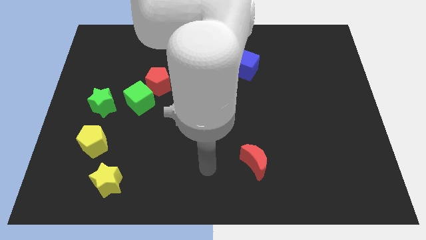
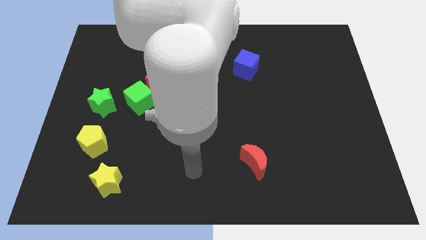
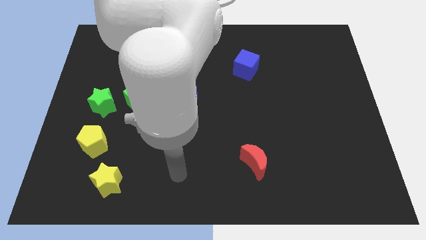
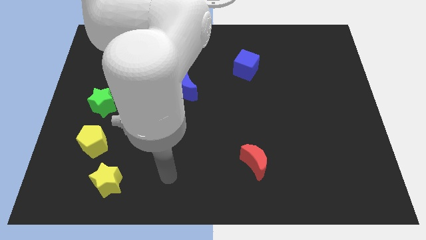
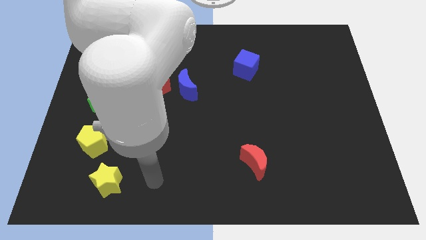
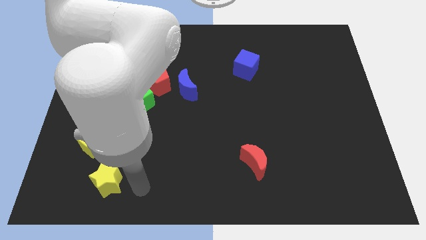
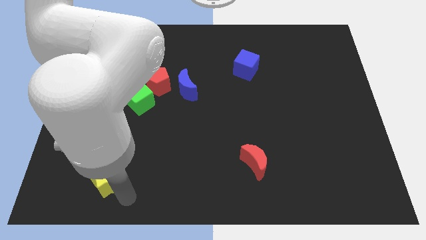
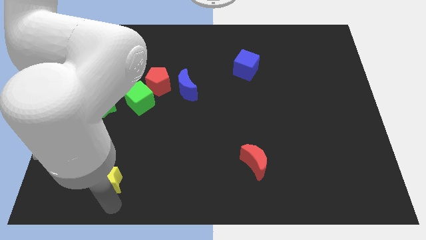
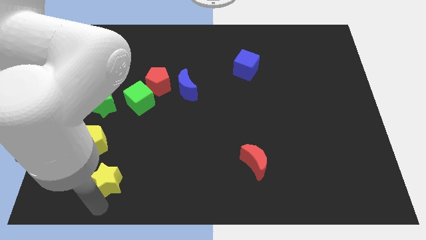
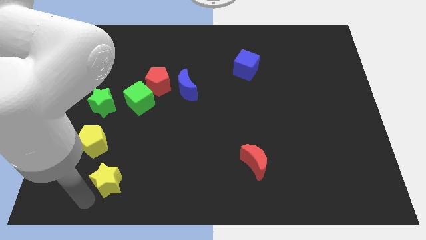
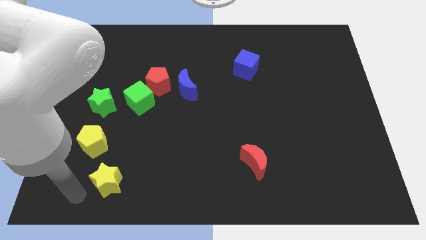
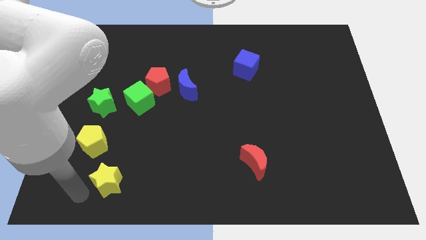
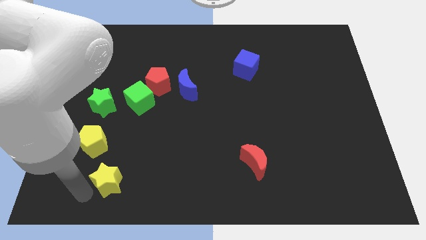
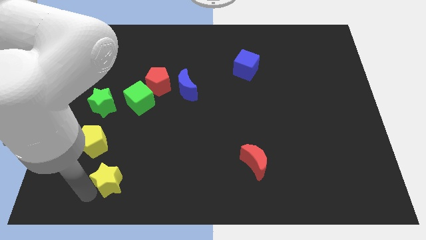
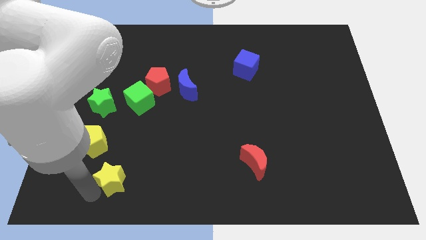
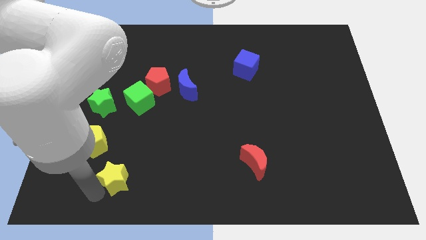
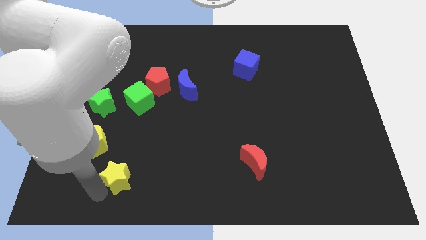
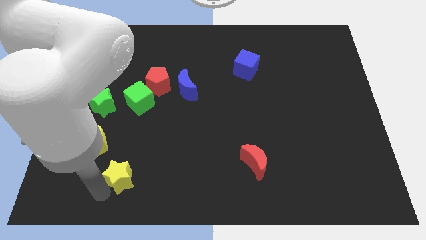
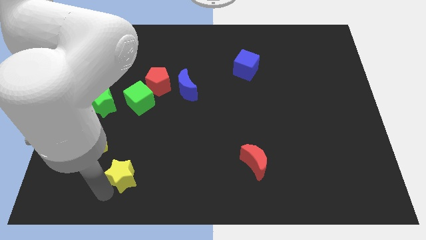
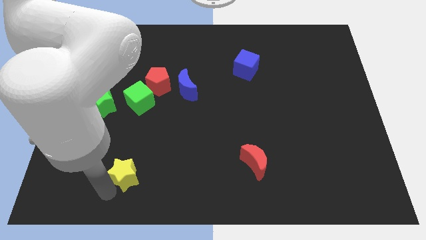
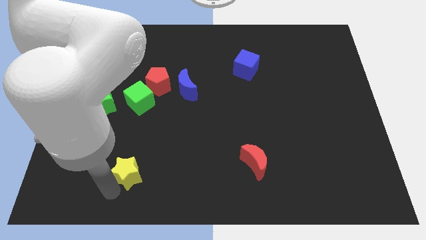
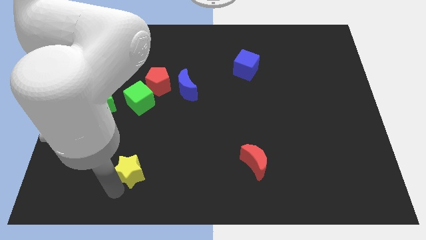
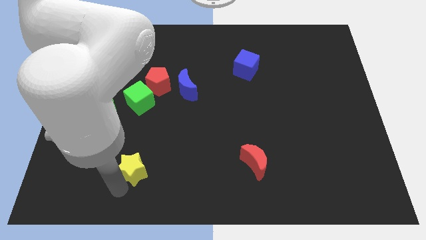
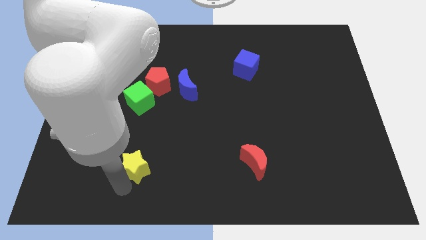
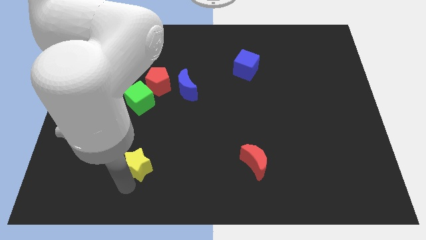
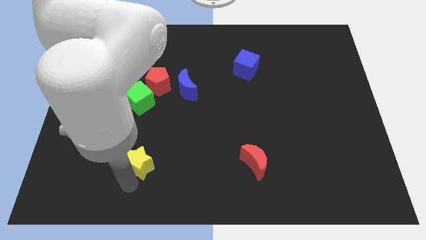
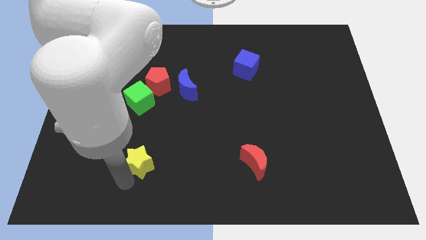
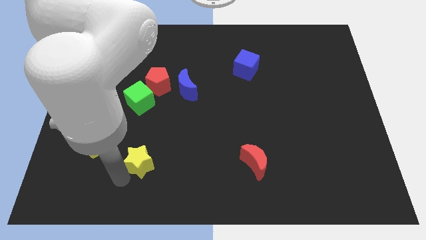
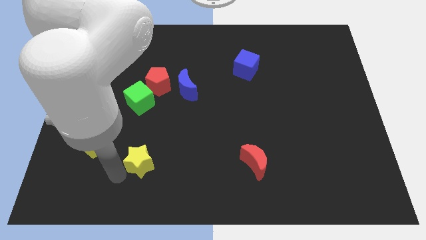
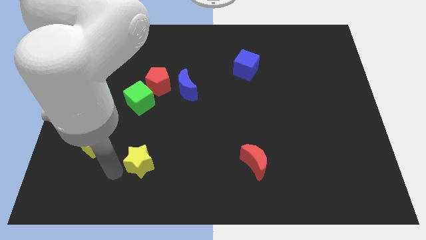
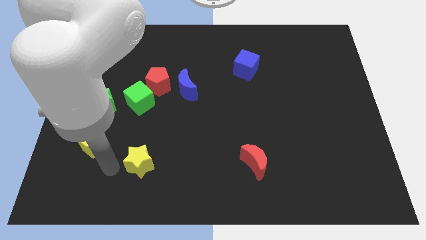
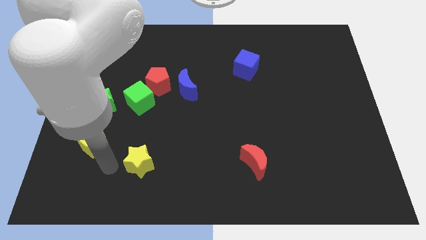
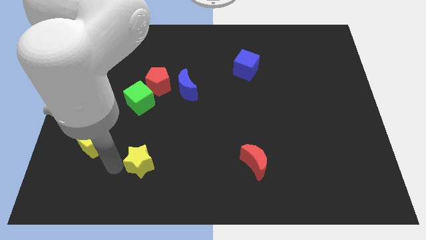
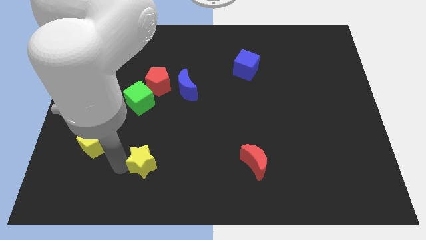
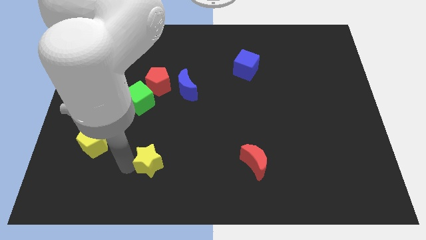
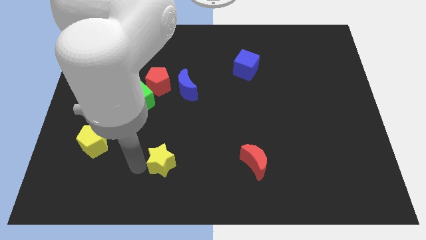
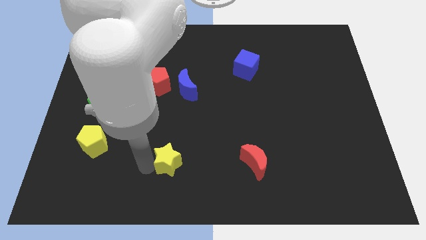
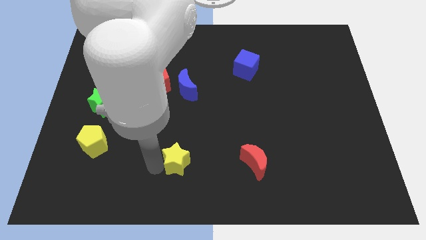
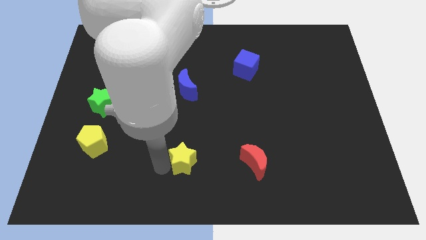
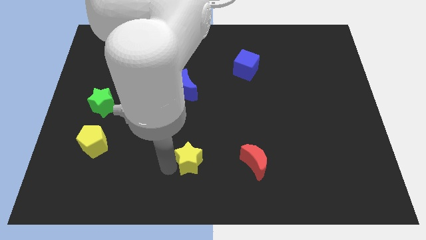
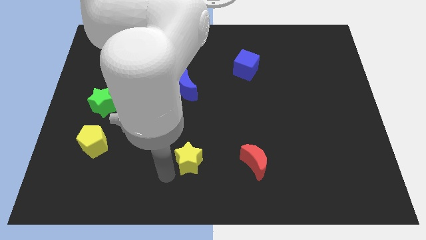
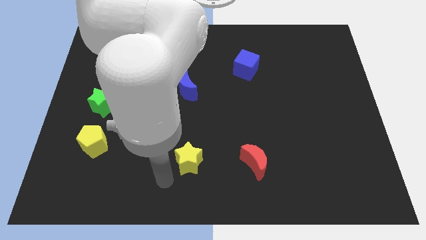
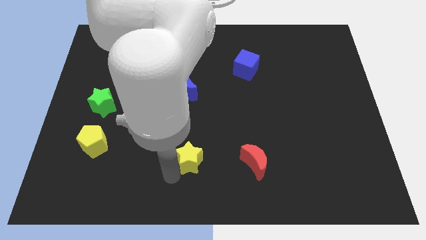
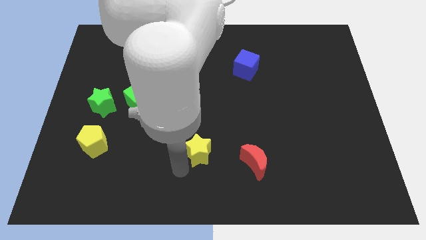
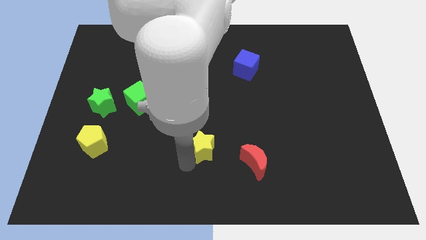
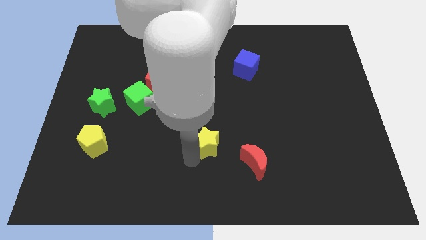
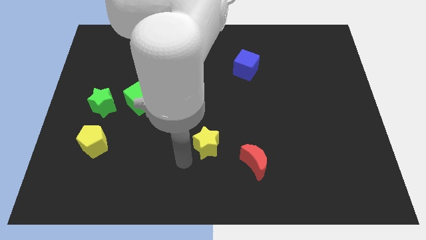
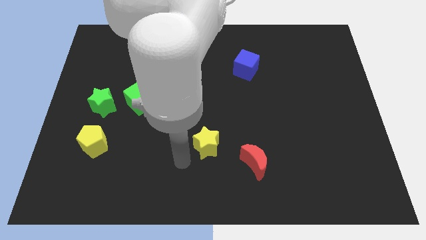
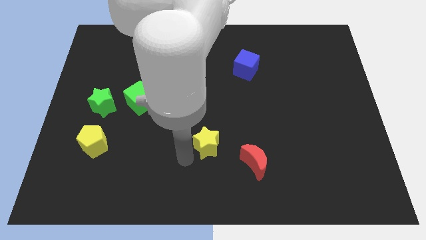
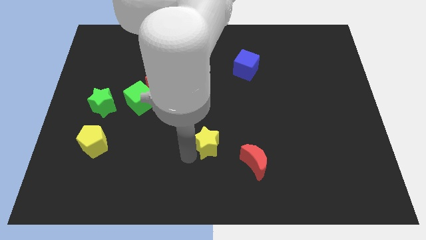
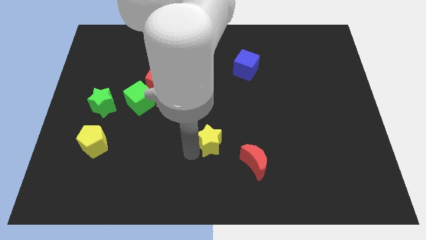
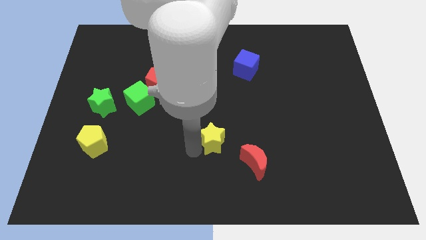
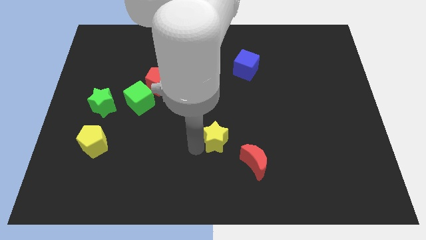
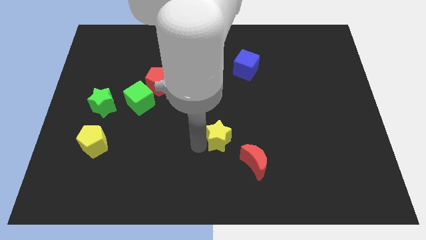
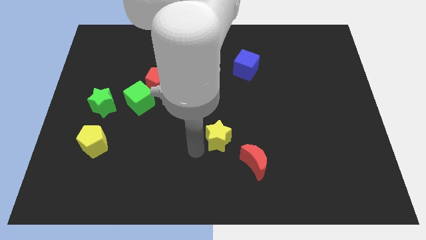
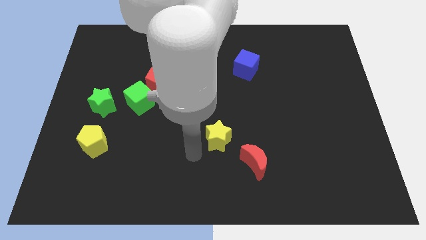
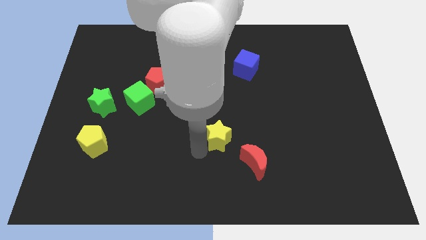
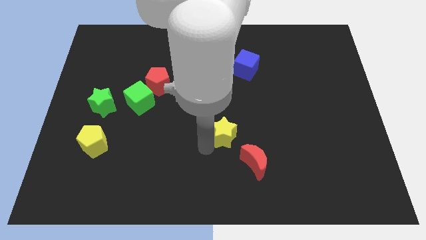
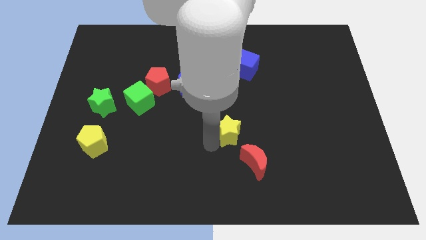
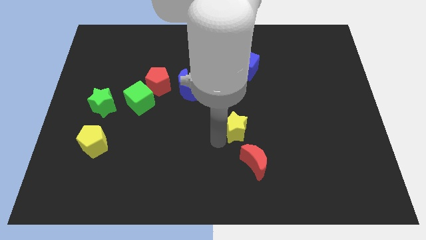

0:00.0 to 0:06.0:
push the yellow star to the top of the red moon

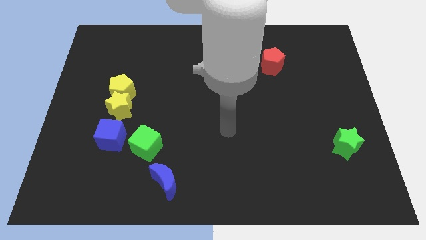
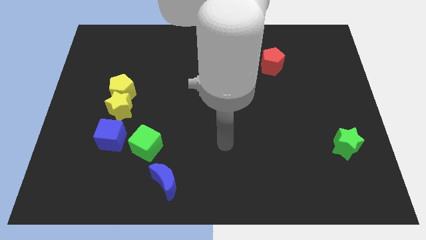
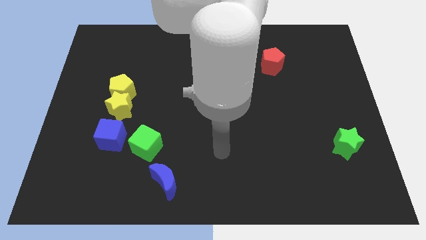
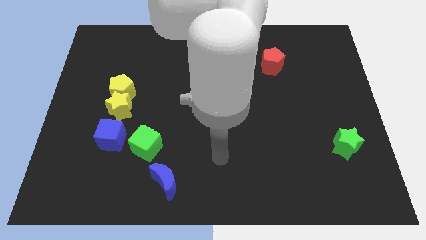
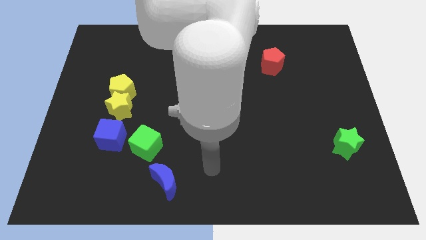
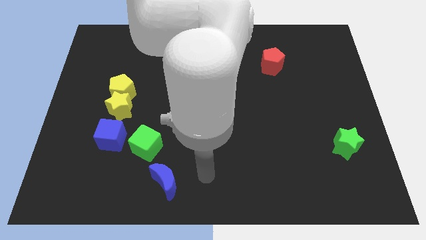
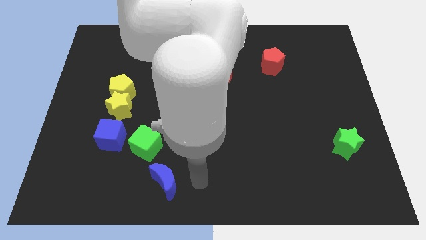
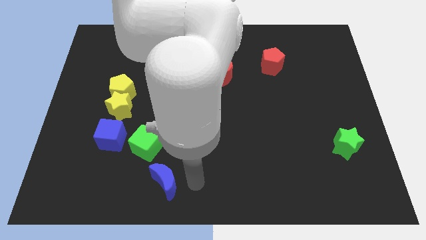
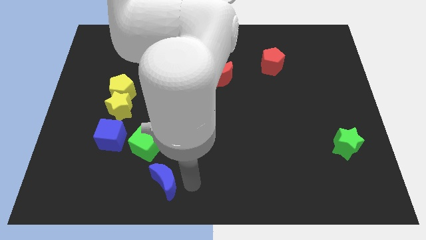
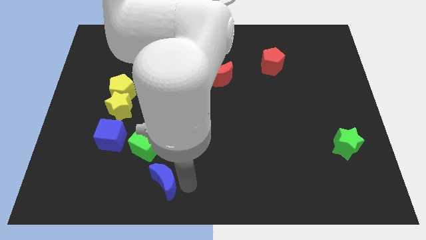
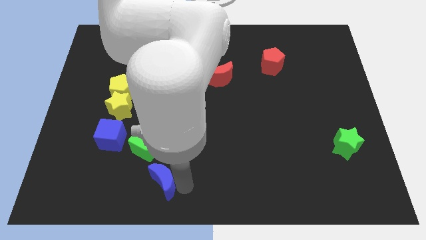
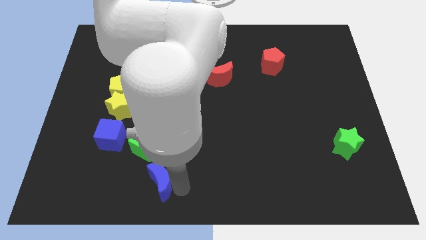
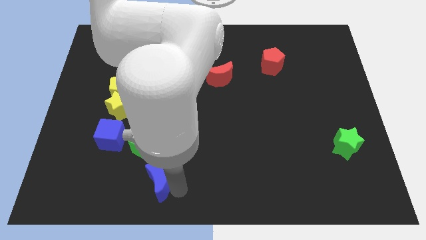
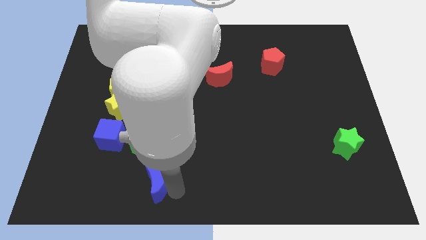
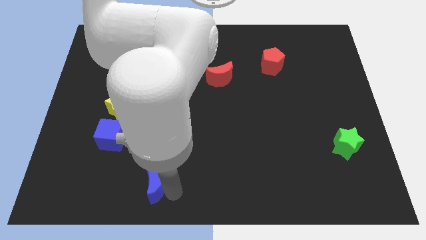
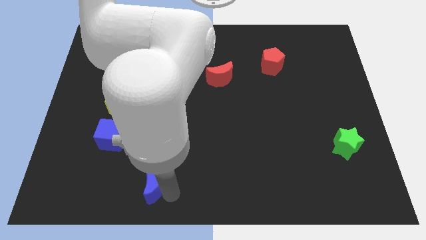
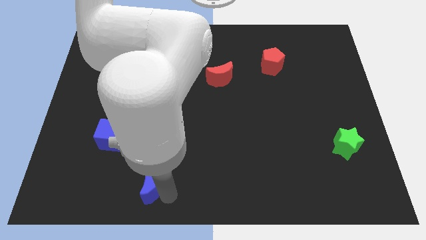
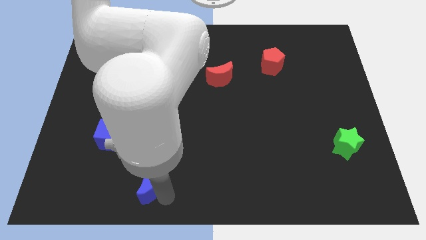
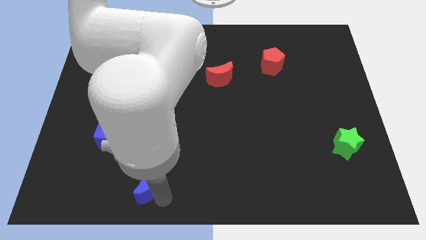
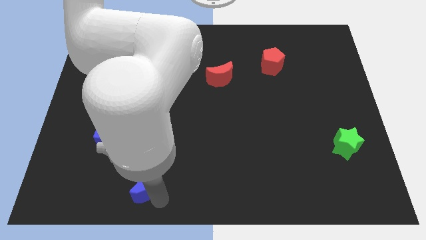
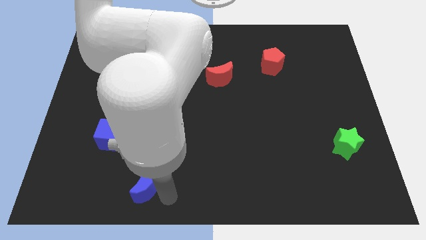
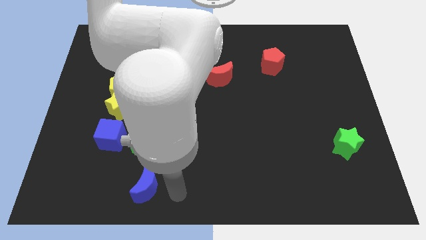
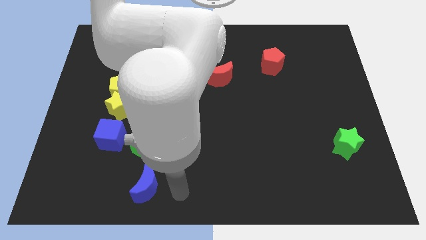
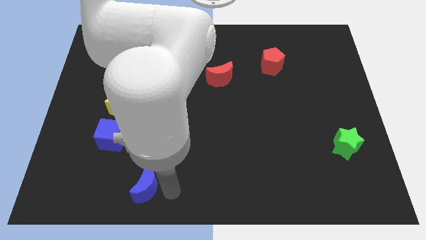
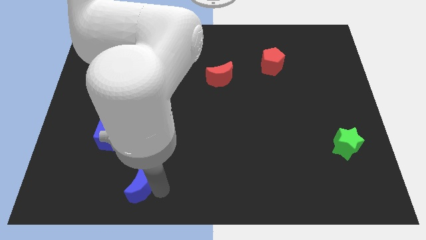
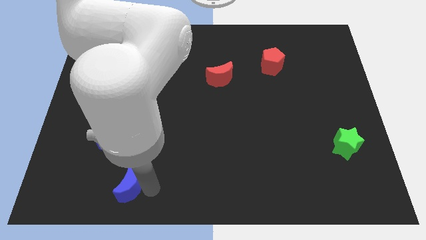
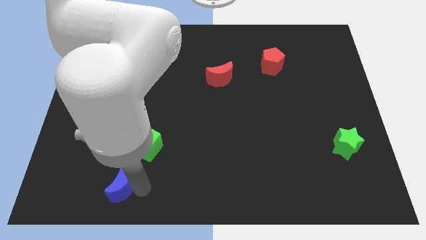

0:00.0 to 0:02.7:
slide the blue moon to the bottom of the blue cube
